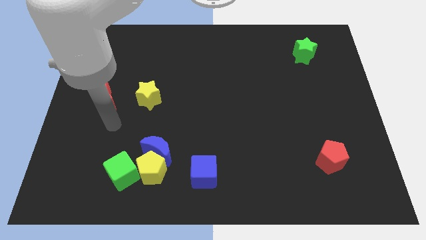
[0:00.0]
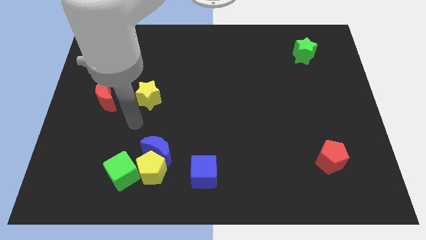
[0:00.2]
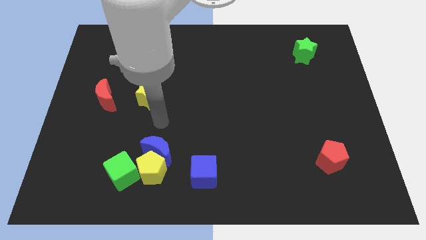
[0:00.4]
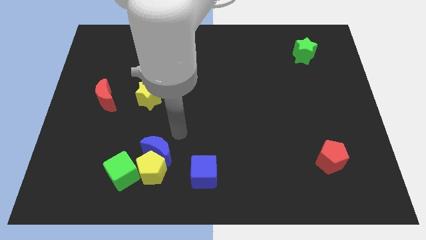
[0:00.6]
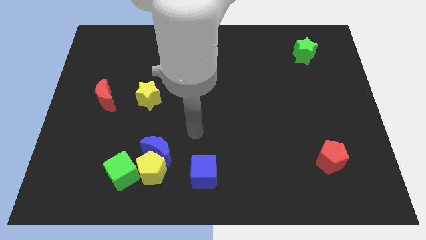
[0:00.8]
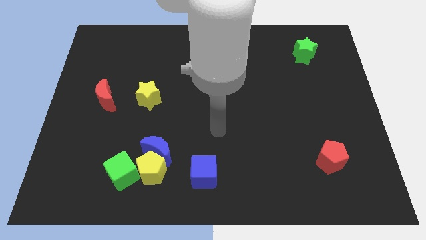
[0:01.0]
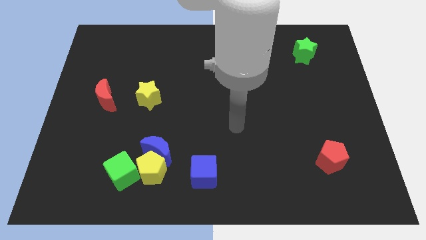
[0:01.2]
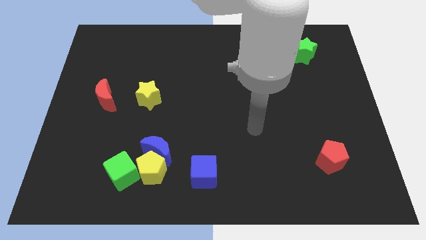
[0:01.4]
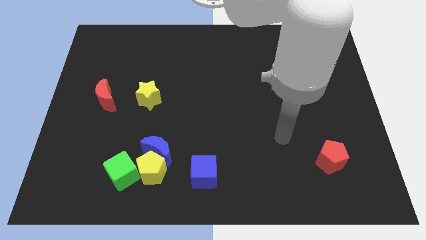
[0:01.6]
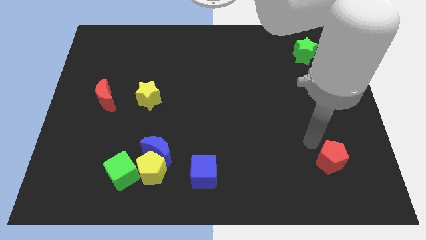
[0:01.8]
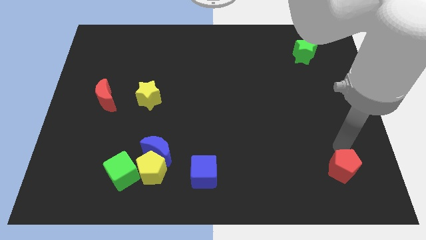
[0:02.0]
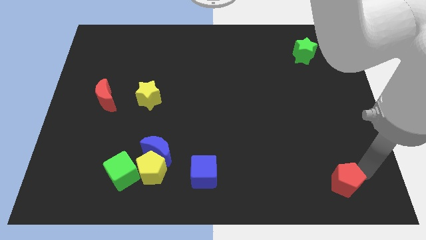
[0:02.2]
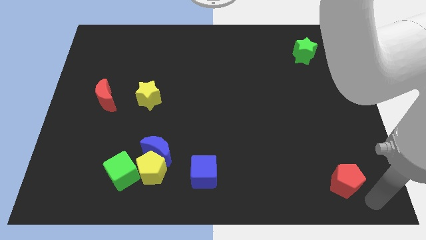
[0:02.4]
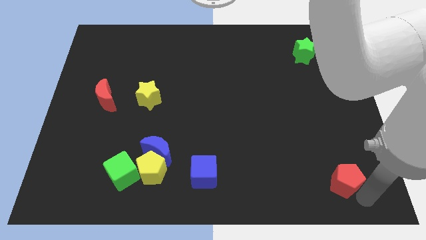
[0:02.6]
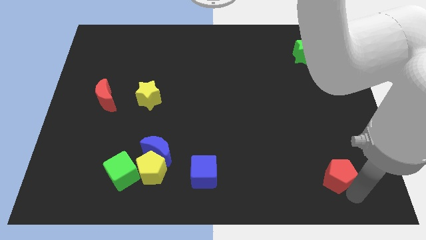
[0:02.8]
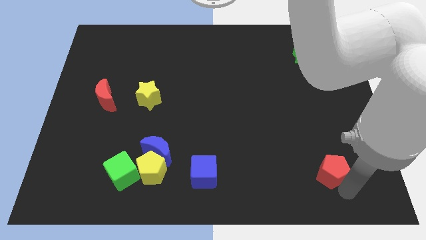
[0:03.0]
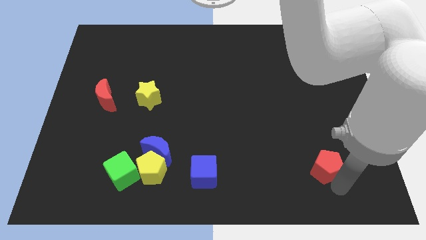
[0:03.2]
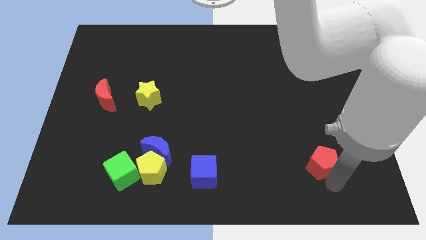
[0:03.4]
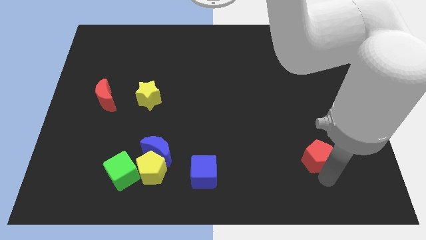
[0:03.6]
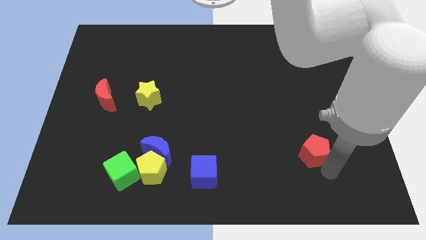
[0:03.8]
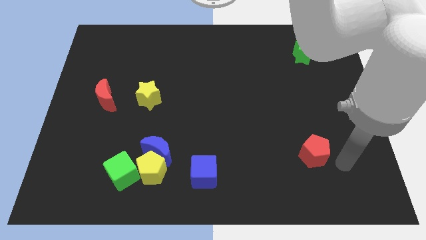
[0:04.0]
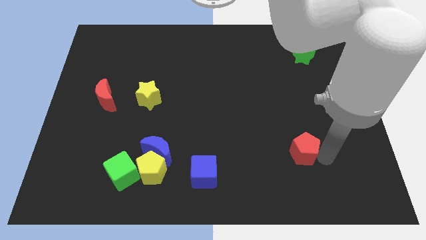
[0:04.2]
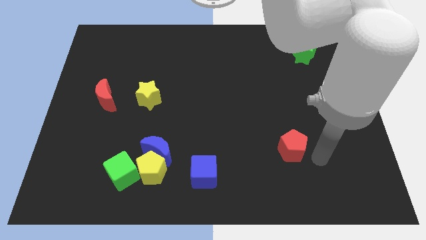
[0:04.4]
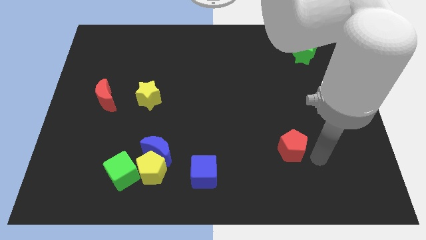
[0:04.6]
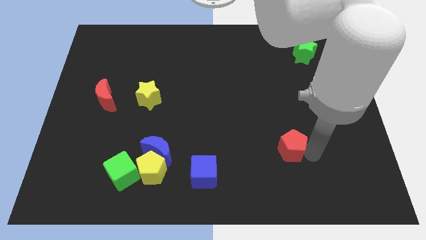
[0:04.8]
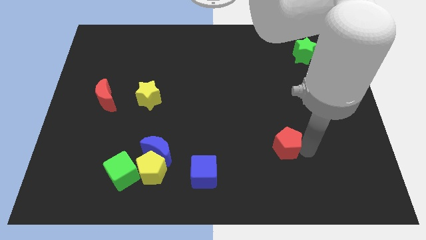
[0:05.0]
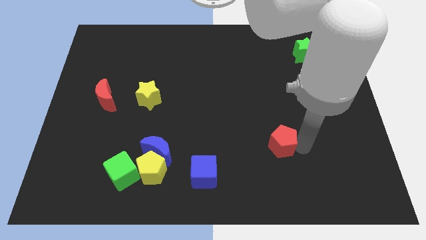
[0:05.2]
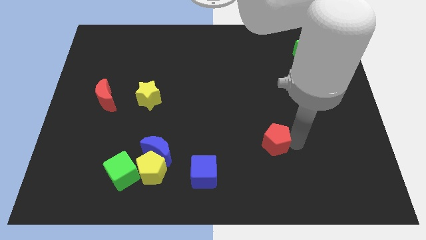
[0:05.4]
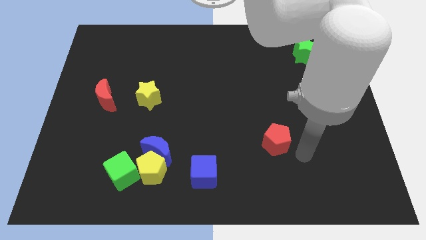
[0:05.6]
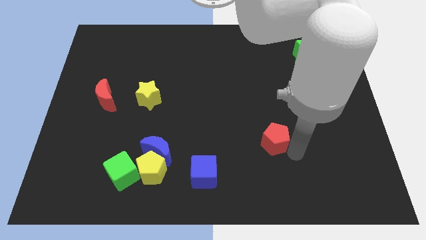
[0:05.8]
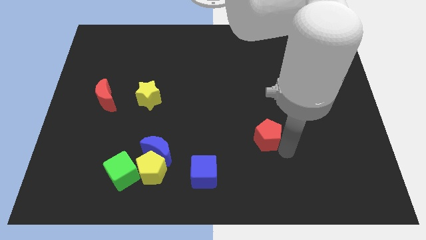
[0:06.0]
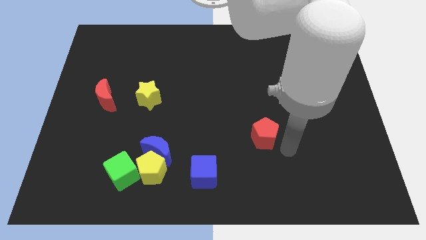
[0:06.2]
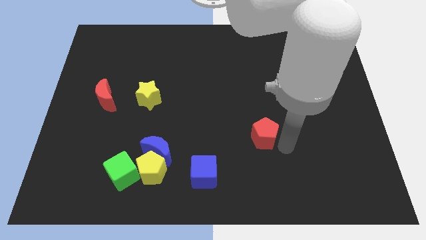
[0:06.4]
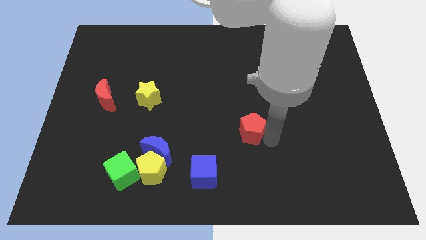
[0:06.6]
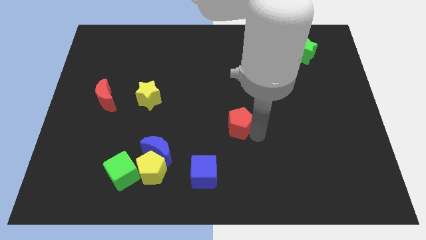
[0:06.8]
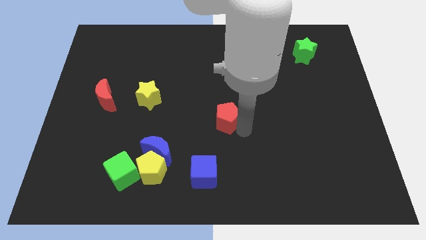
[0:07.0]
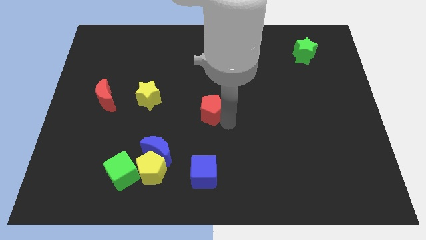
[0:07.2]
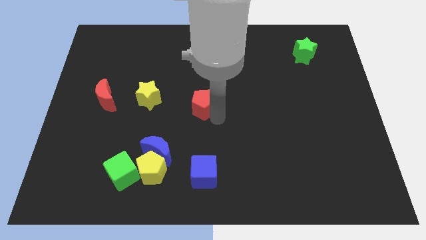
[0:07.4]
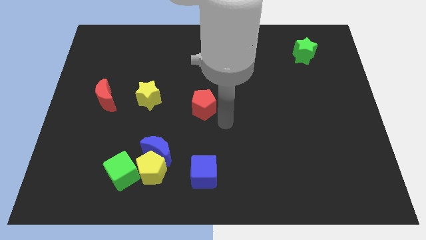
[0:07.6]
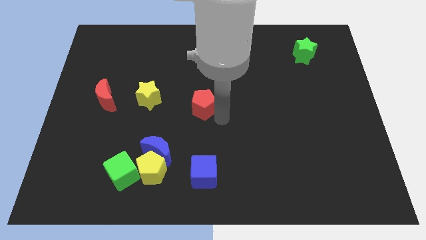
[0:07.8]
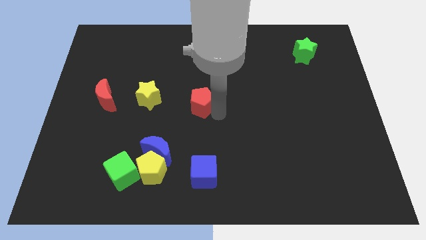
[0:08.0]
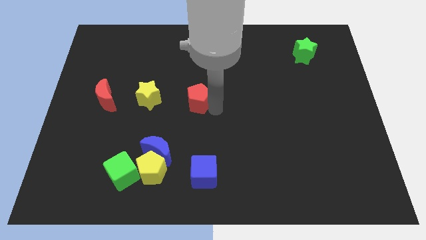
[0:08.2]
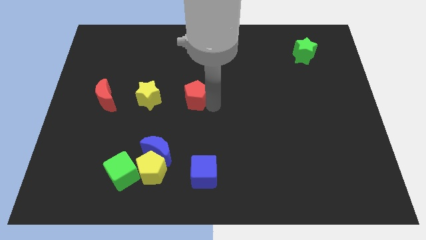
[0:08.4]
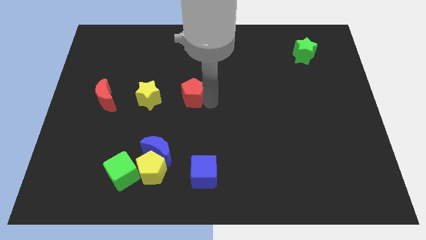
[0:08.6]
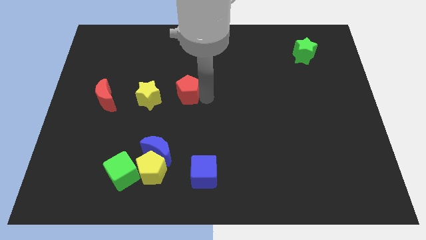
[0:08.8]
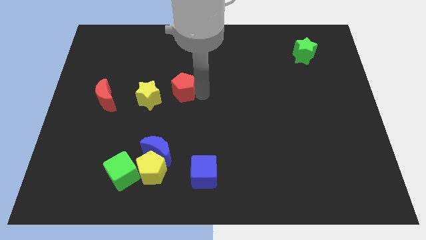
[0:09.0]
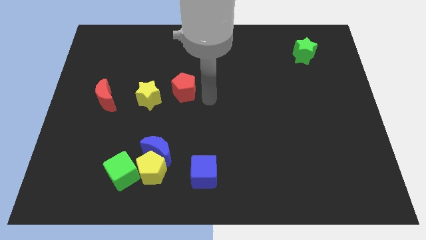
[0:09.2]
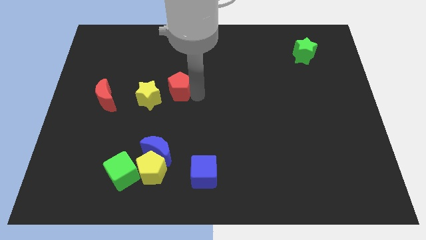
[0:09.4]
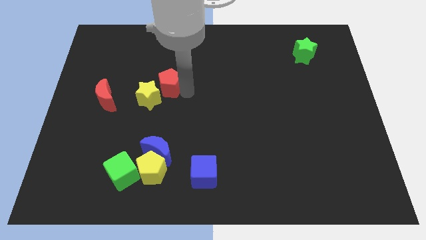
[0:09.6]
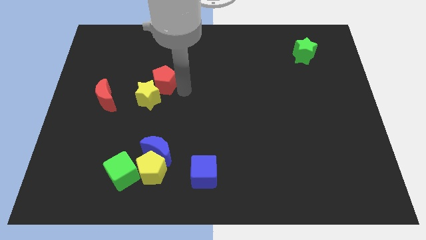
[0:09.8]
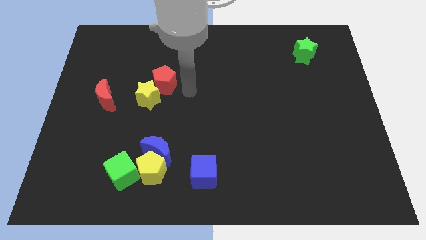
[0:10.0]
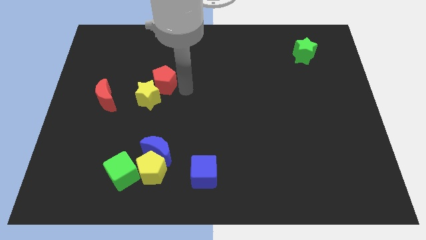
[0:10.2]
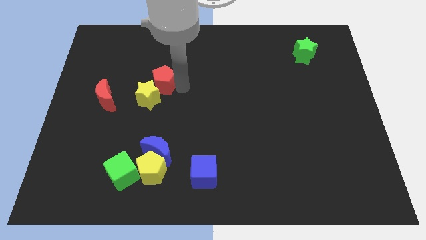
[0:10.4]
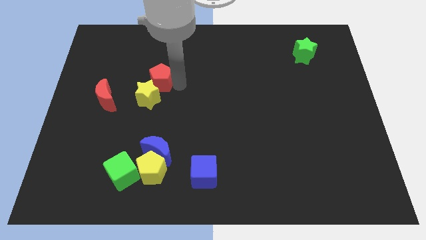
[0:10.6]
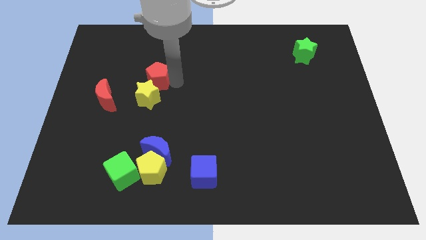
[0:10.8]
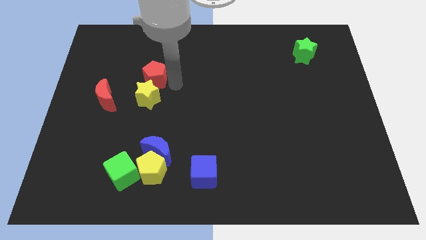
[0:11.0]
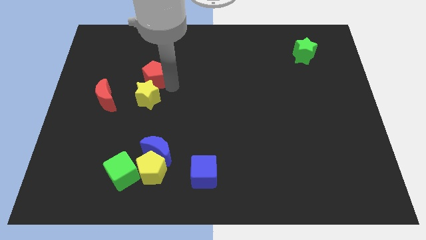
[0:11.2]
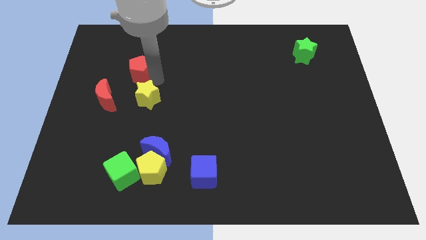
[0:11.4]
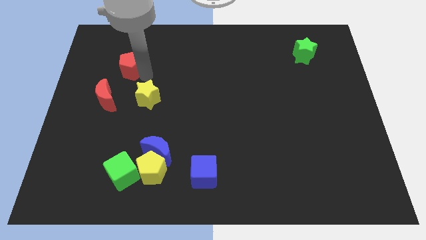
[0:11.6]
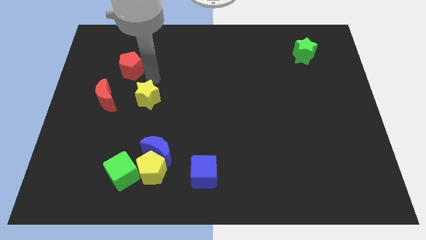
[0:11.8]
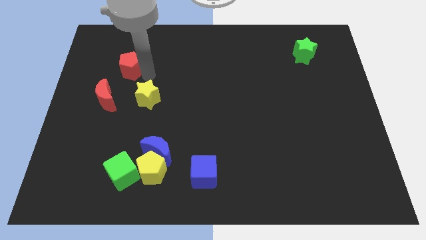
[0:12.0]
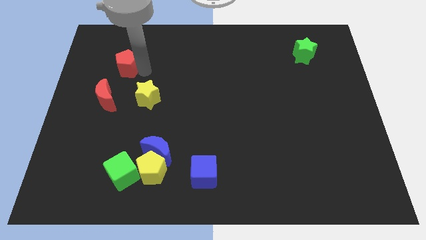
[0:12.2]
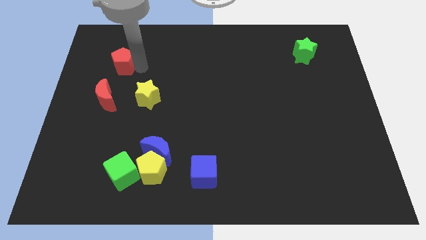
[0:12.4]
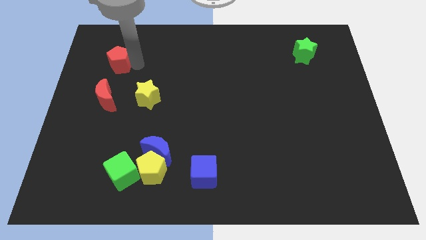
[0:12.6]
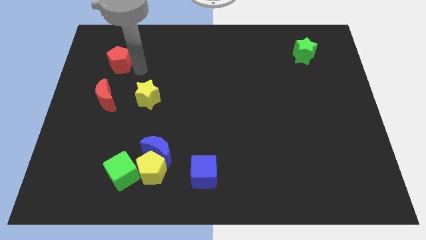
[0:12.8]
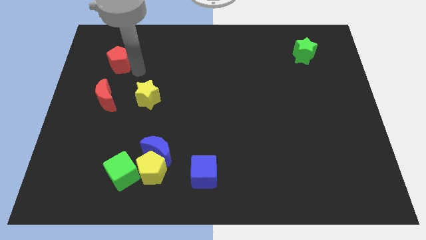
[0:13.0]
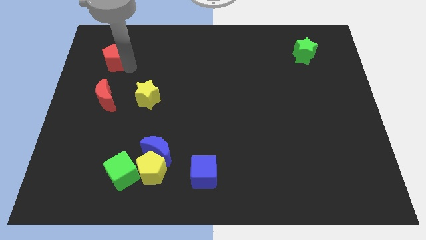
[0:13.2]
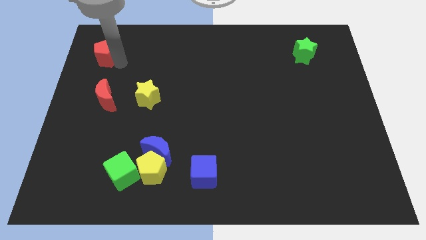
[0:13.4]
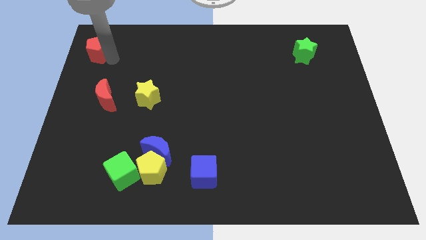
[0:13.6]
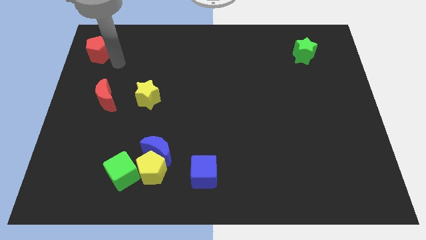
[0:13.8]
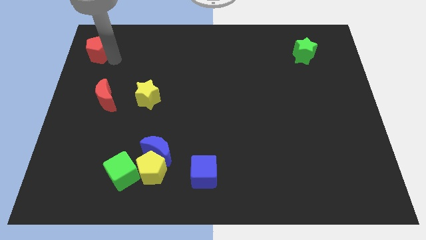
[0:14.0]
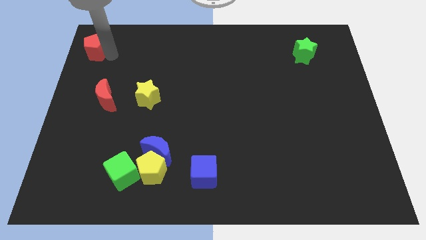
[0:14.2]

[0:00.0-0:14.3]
push the red pentagon to the top left corner
